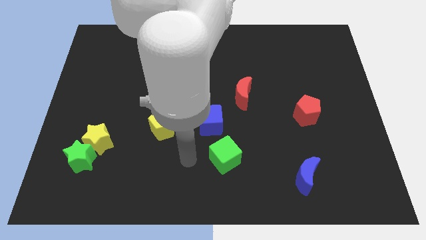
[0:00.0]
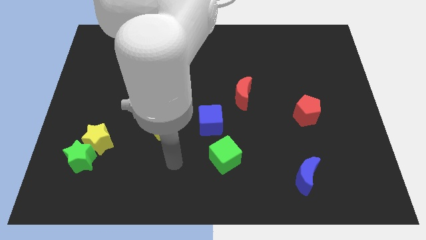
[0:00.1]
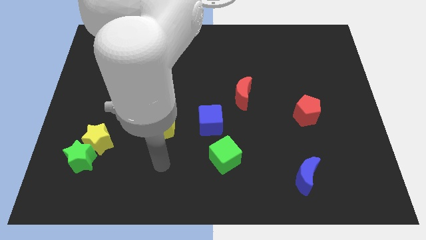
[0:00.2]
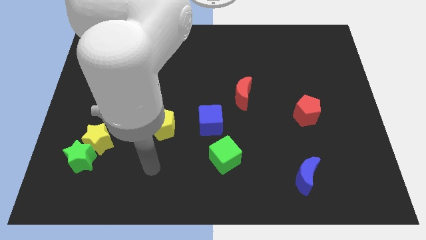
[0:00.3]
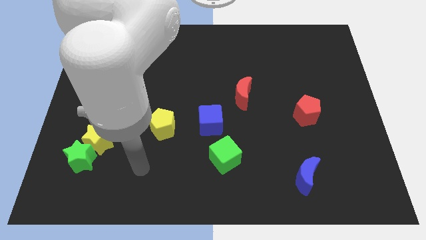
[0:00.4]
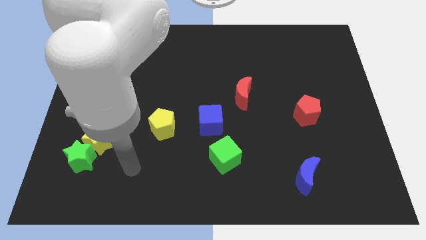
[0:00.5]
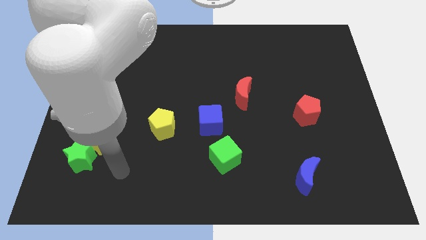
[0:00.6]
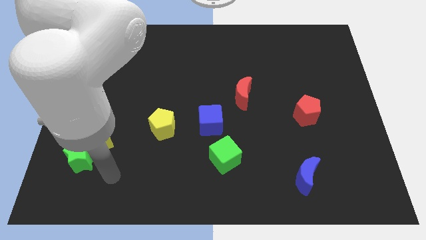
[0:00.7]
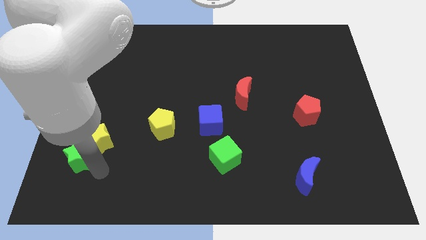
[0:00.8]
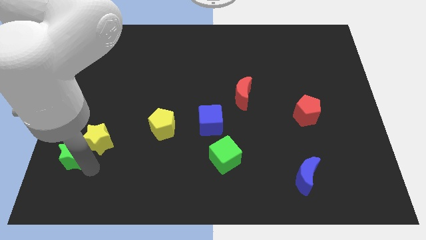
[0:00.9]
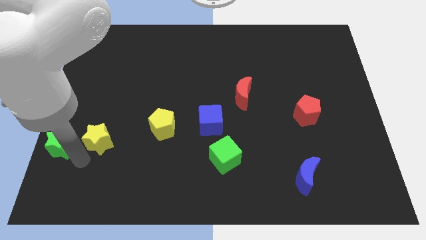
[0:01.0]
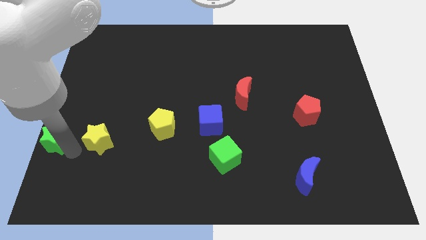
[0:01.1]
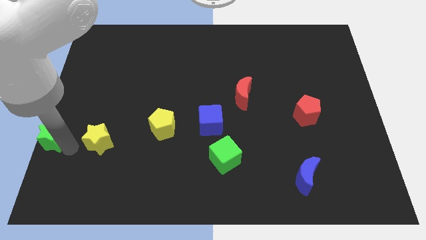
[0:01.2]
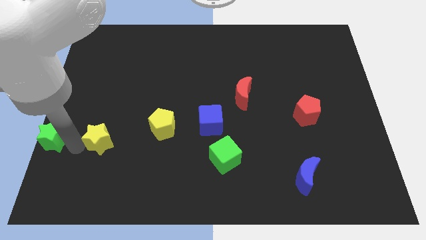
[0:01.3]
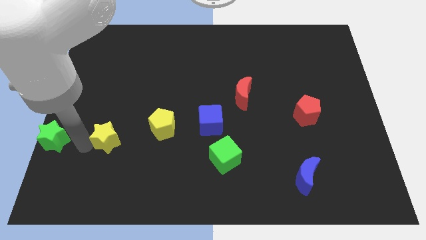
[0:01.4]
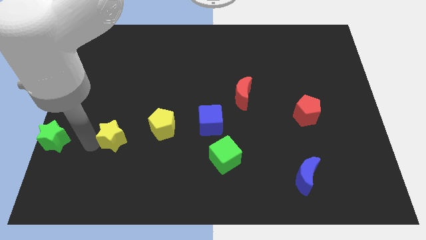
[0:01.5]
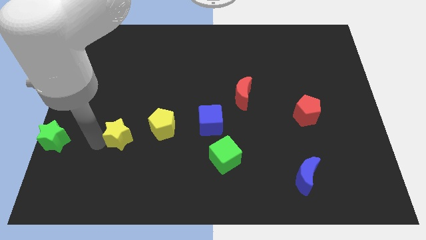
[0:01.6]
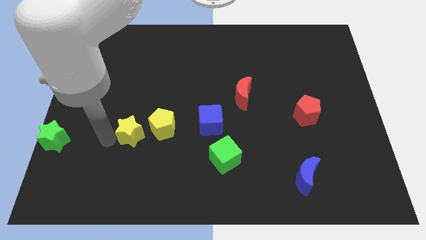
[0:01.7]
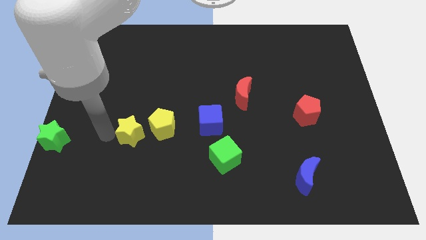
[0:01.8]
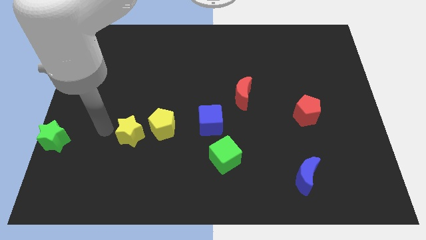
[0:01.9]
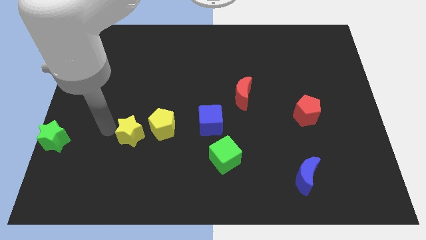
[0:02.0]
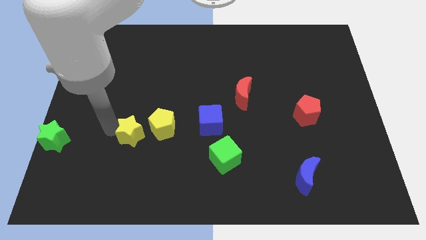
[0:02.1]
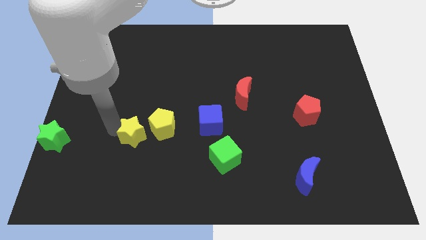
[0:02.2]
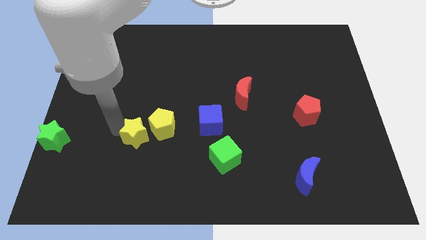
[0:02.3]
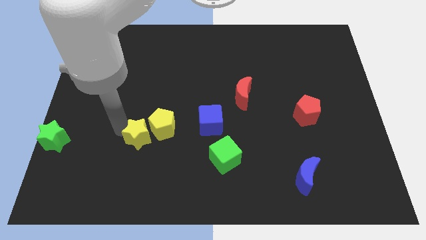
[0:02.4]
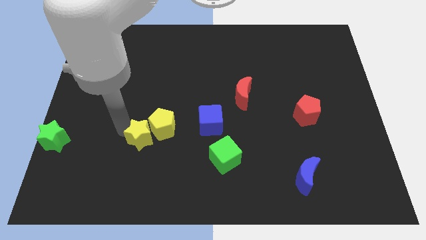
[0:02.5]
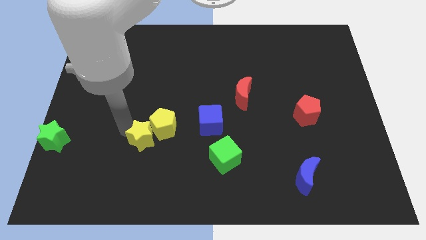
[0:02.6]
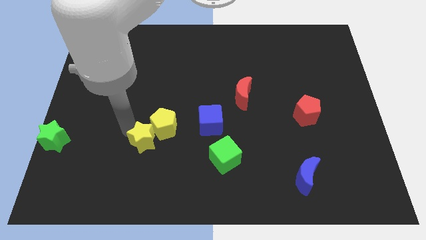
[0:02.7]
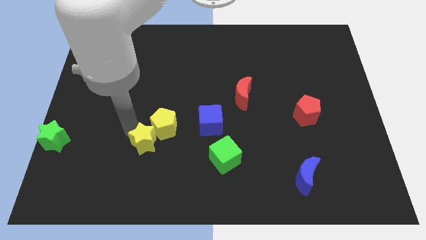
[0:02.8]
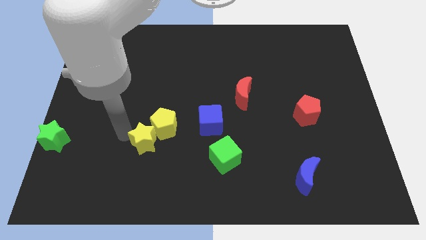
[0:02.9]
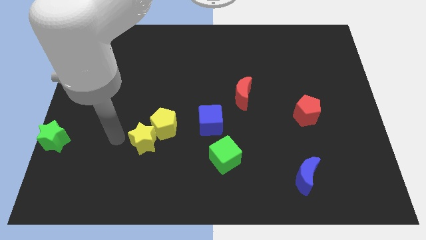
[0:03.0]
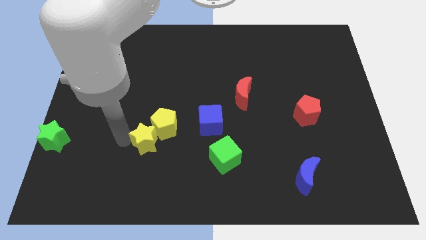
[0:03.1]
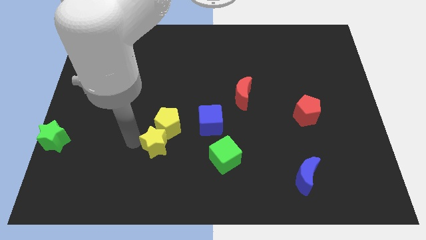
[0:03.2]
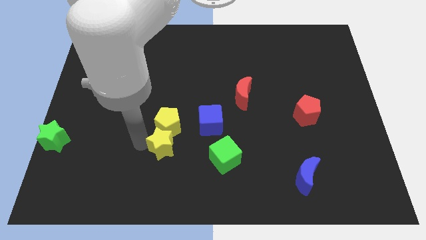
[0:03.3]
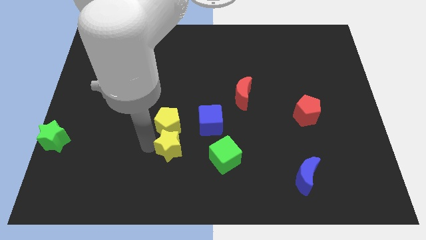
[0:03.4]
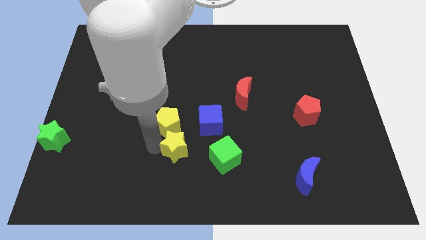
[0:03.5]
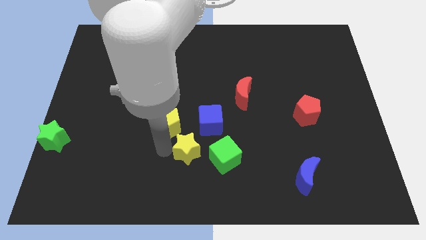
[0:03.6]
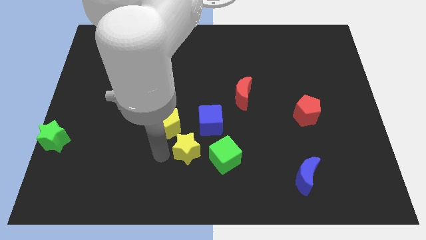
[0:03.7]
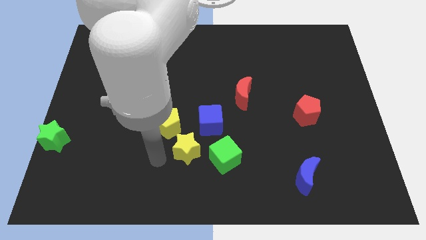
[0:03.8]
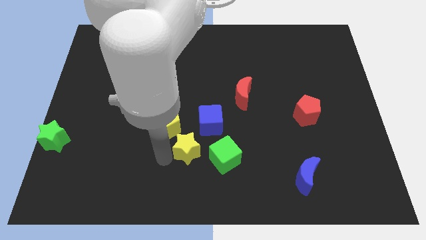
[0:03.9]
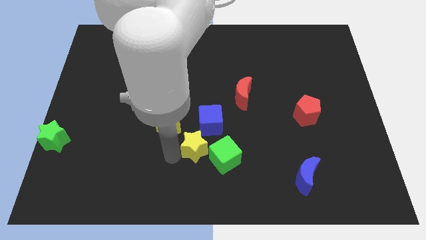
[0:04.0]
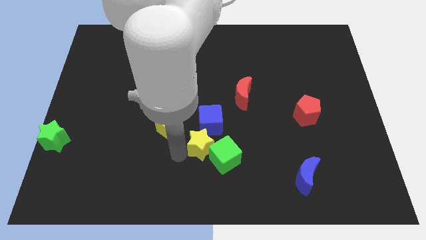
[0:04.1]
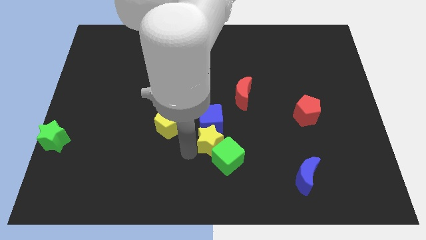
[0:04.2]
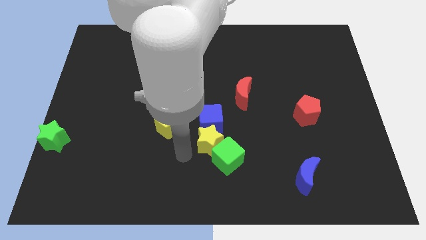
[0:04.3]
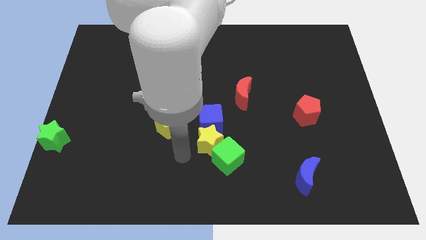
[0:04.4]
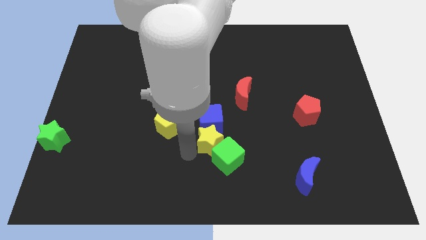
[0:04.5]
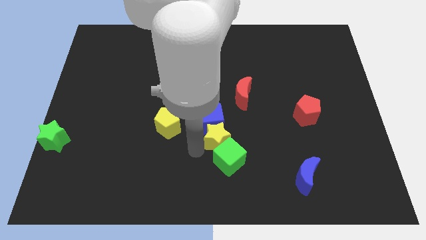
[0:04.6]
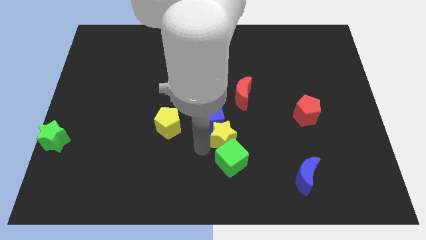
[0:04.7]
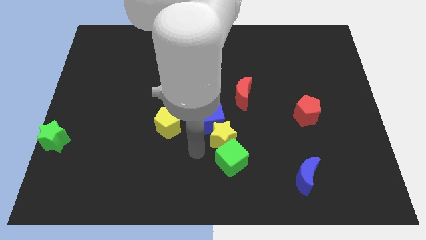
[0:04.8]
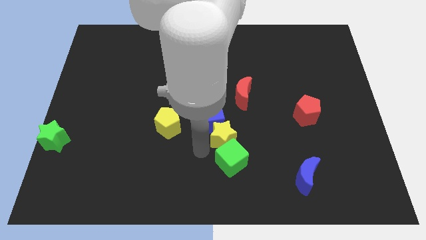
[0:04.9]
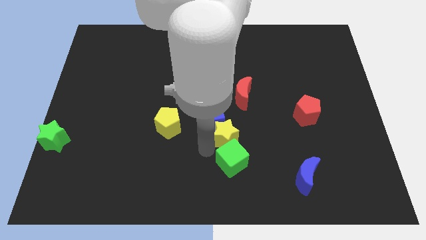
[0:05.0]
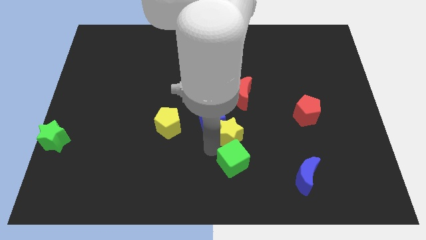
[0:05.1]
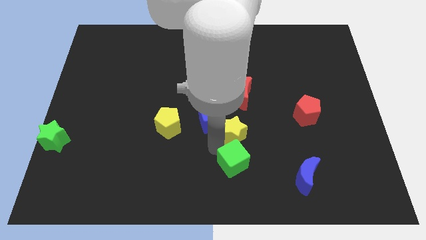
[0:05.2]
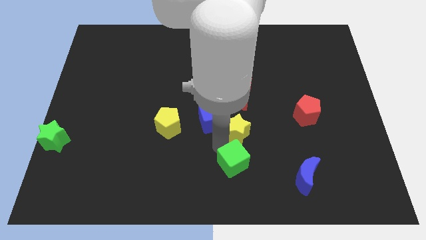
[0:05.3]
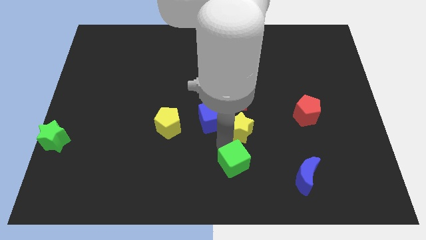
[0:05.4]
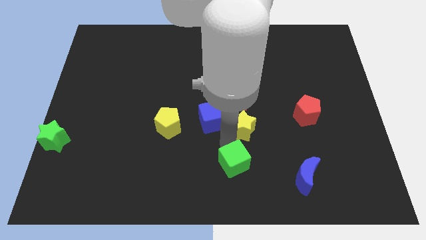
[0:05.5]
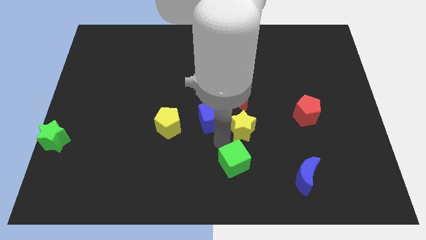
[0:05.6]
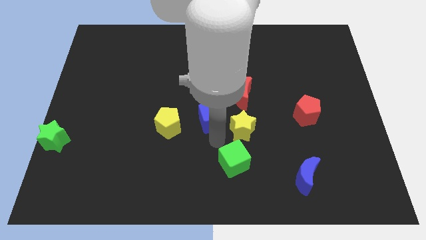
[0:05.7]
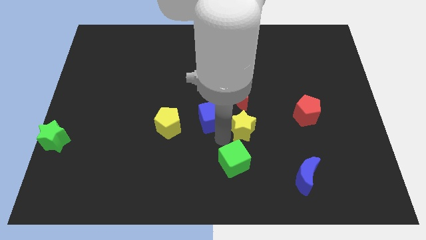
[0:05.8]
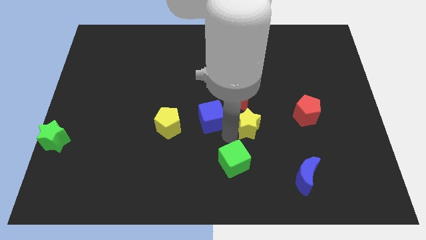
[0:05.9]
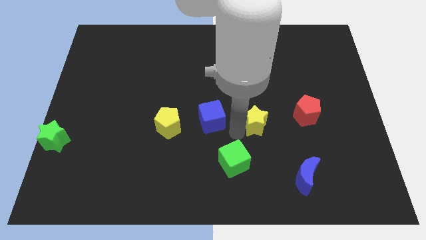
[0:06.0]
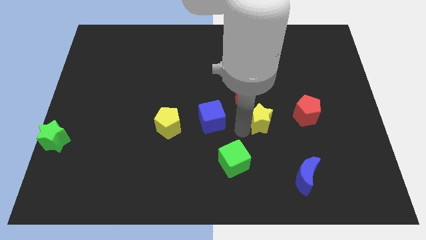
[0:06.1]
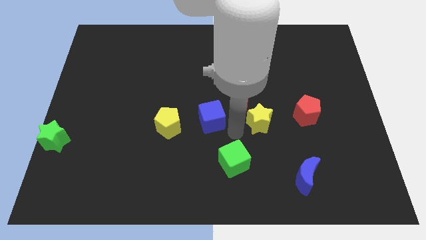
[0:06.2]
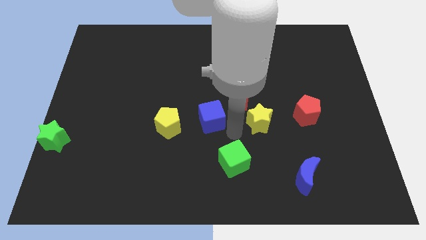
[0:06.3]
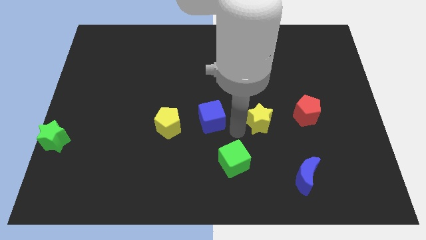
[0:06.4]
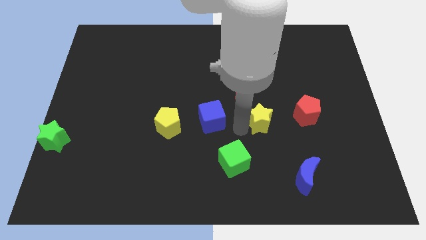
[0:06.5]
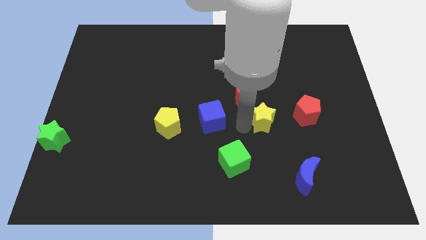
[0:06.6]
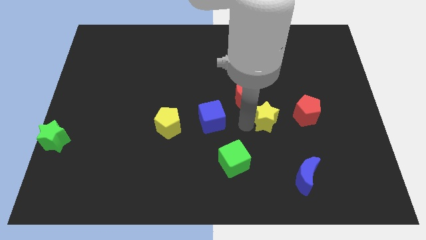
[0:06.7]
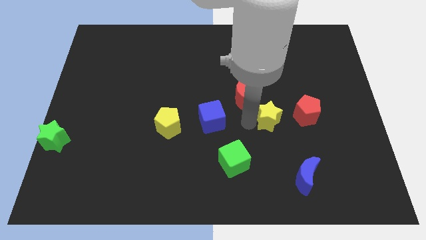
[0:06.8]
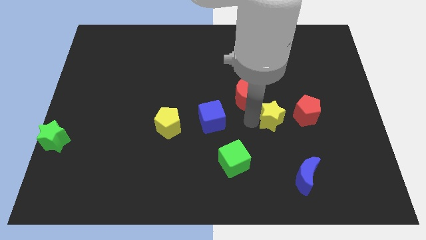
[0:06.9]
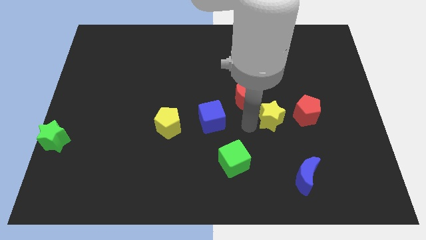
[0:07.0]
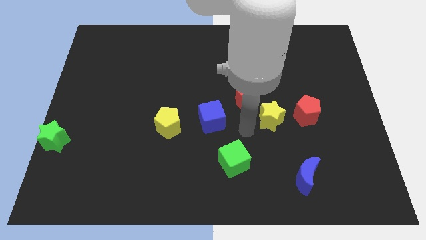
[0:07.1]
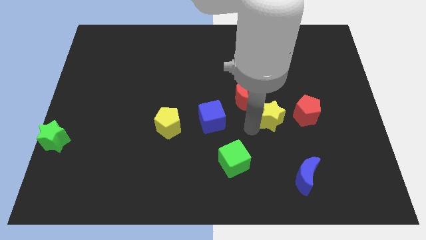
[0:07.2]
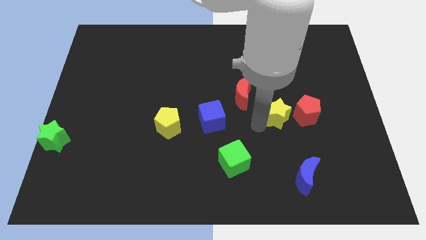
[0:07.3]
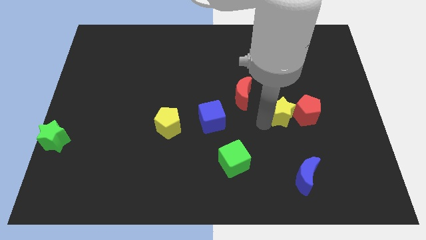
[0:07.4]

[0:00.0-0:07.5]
push the yellow star towards the red pentagon
